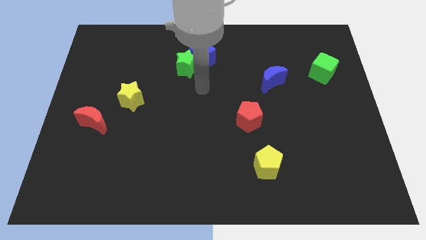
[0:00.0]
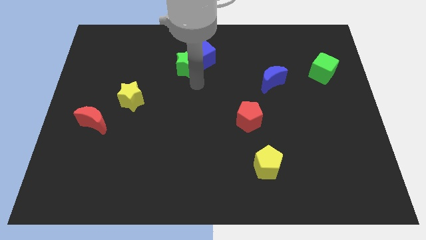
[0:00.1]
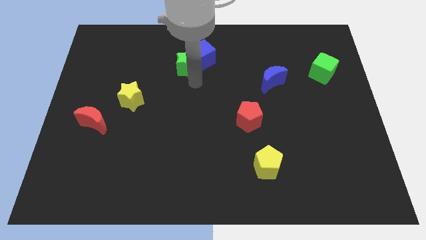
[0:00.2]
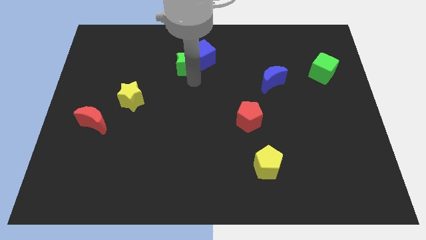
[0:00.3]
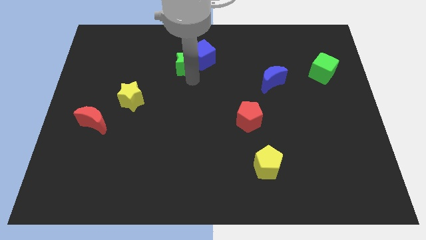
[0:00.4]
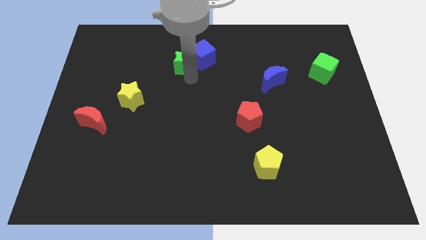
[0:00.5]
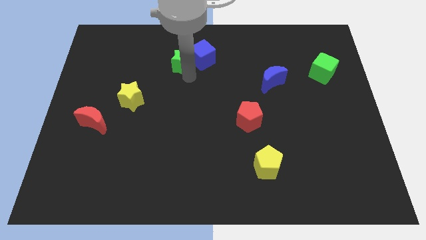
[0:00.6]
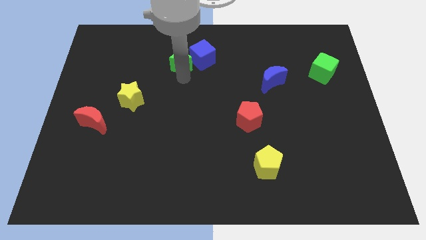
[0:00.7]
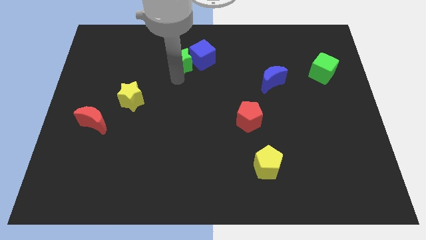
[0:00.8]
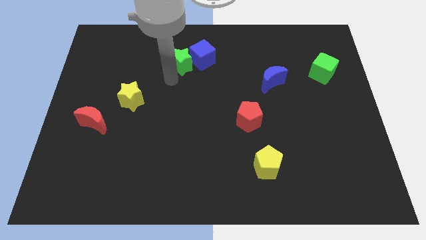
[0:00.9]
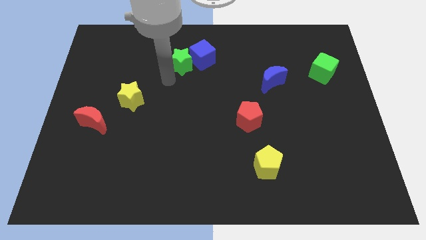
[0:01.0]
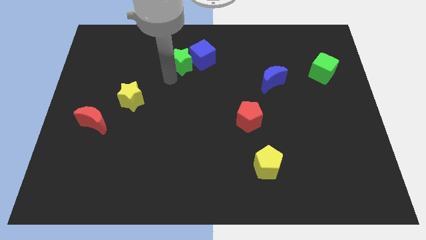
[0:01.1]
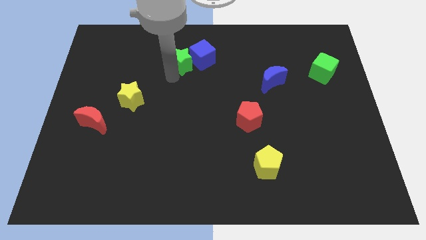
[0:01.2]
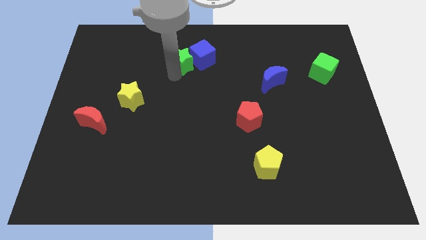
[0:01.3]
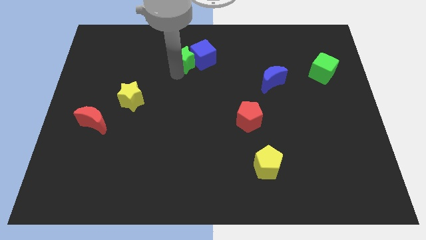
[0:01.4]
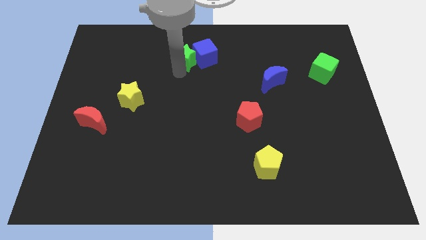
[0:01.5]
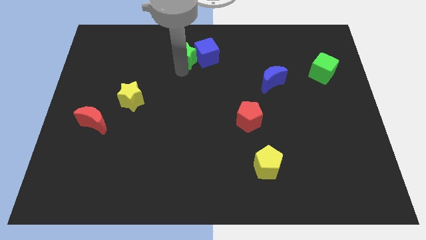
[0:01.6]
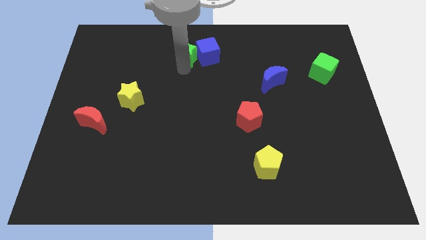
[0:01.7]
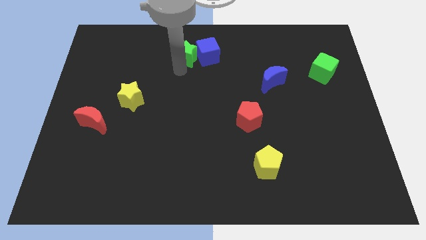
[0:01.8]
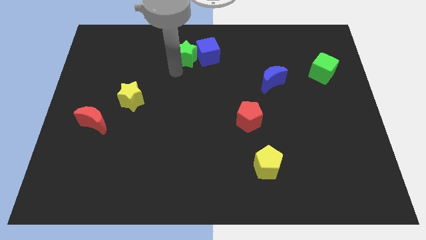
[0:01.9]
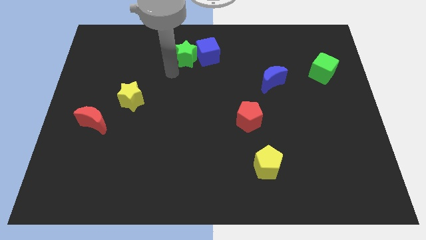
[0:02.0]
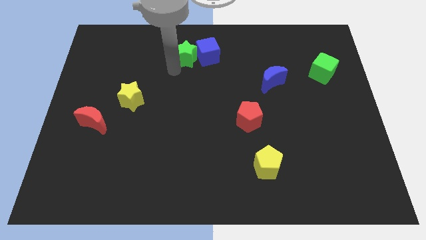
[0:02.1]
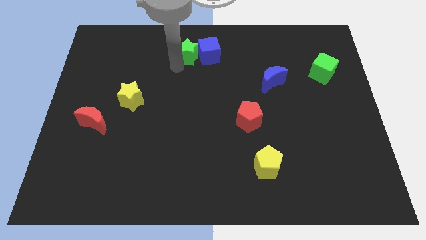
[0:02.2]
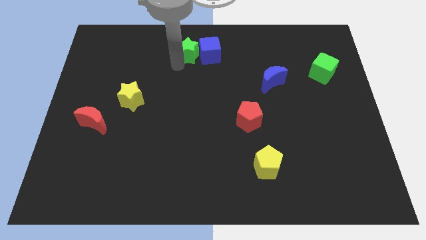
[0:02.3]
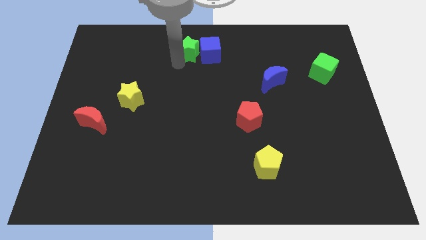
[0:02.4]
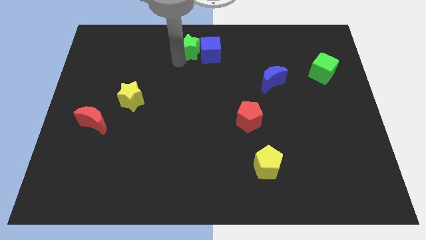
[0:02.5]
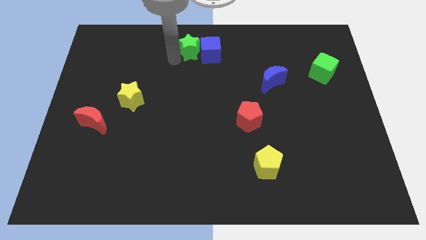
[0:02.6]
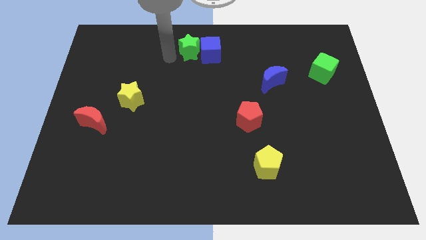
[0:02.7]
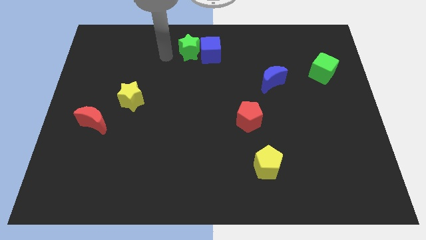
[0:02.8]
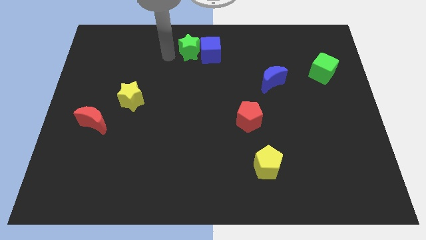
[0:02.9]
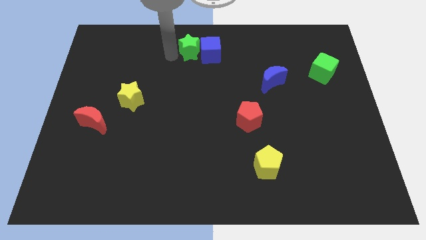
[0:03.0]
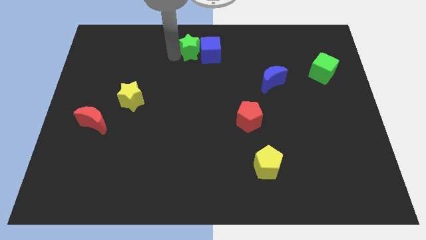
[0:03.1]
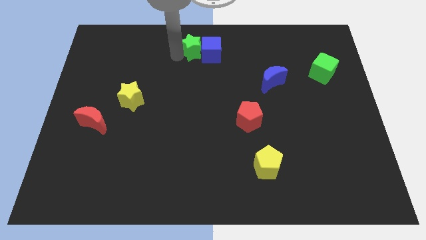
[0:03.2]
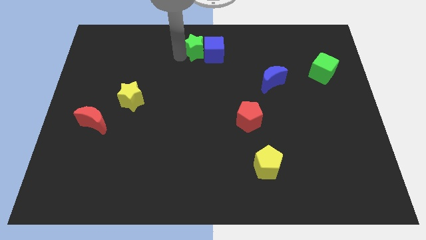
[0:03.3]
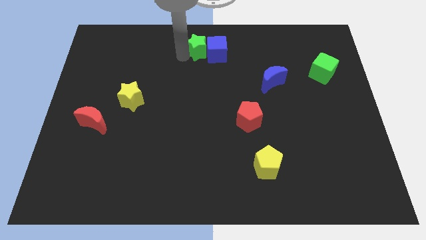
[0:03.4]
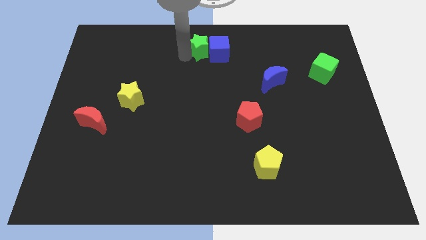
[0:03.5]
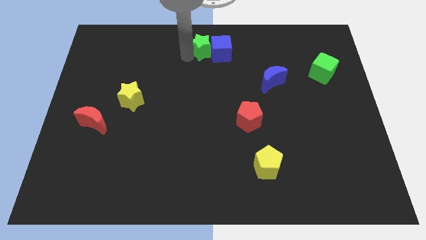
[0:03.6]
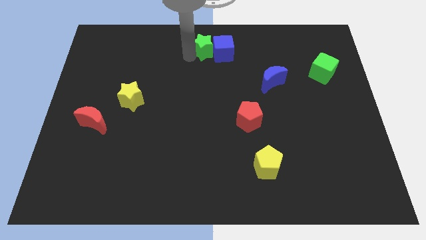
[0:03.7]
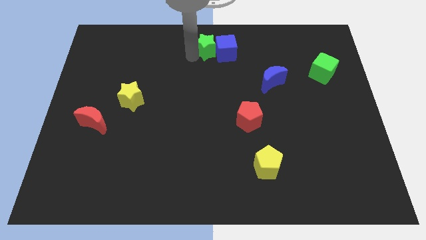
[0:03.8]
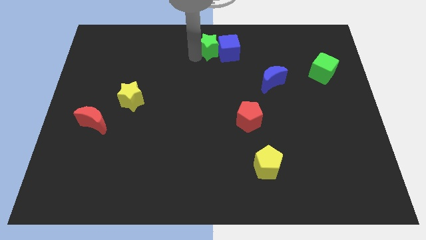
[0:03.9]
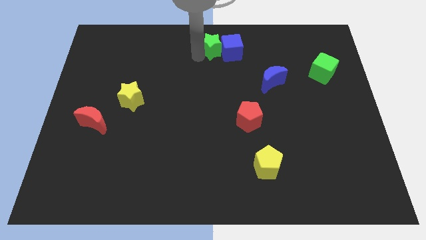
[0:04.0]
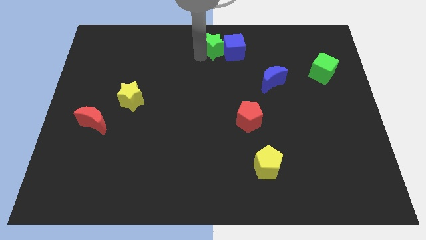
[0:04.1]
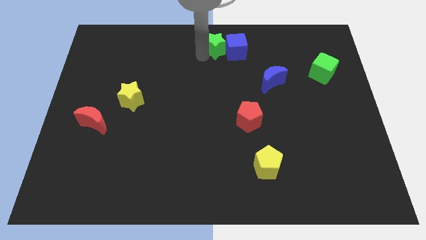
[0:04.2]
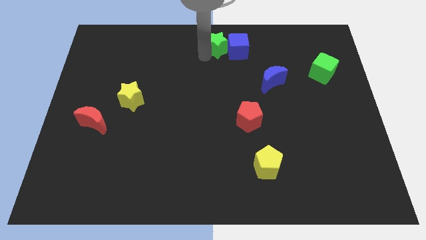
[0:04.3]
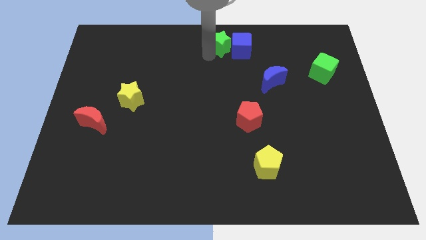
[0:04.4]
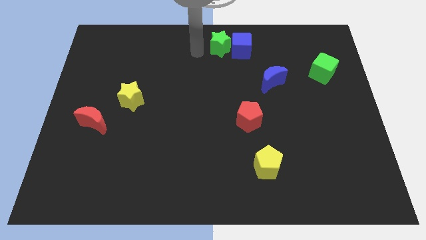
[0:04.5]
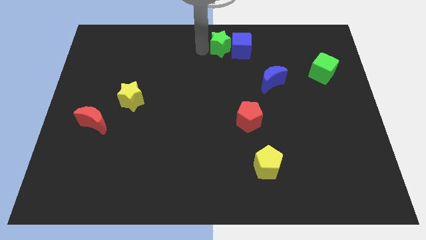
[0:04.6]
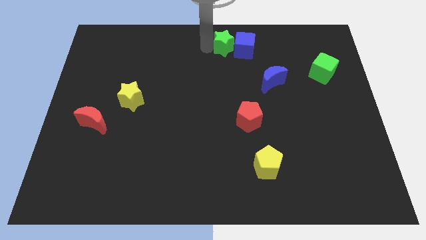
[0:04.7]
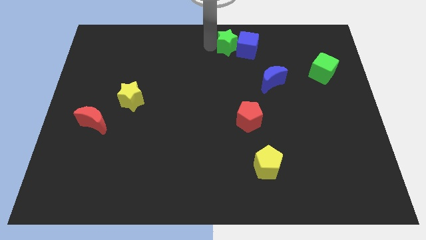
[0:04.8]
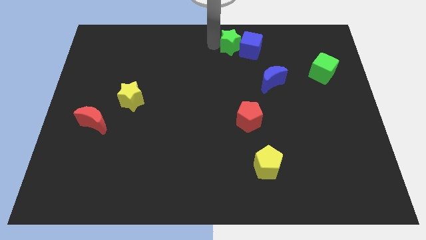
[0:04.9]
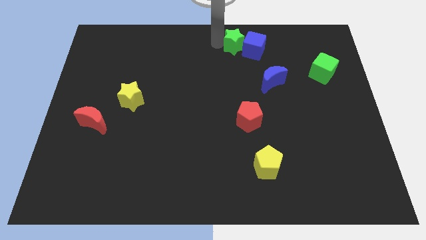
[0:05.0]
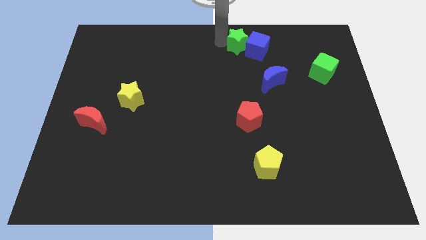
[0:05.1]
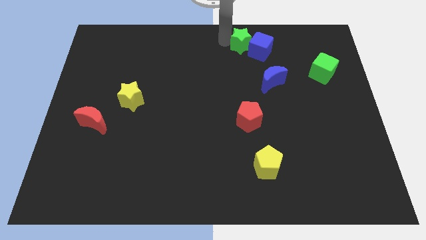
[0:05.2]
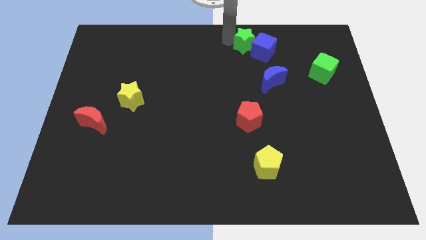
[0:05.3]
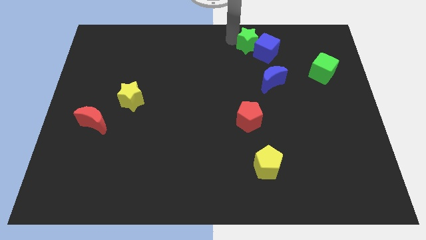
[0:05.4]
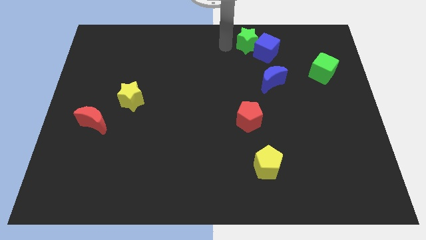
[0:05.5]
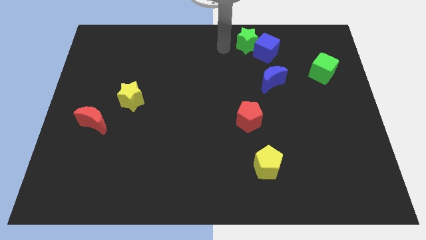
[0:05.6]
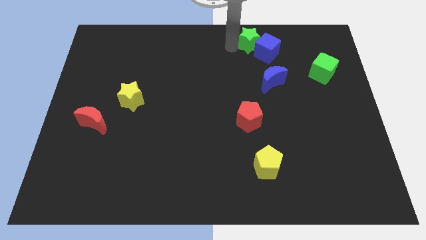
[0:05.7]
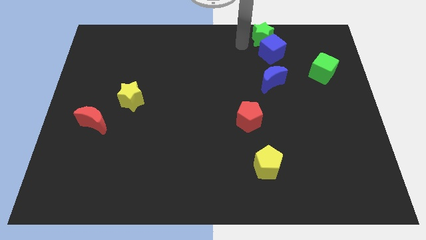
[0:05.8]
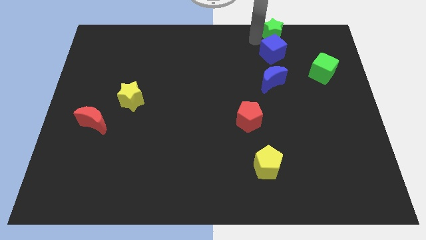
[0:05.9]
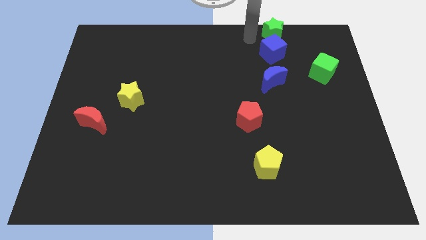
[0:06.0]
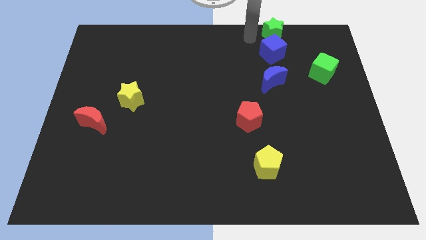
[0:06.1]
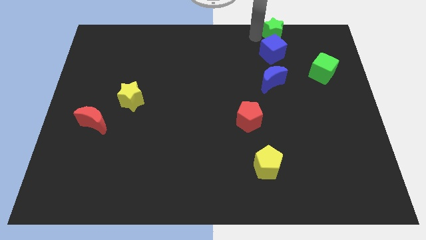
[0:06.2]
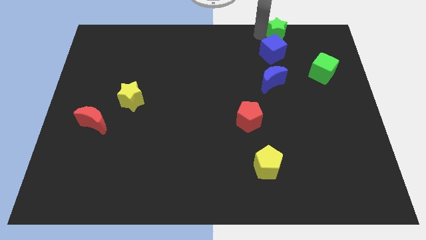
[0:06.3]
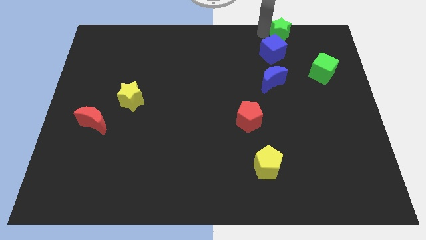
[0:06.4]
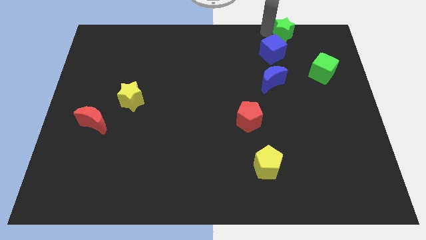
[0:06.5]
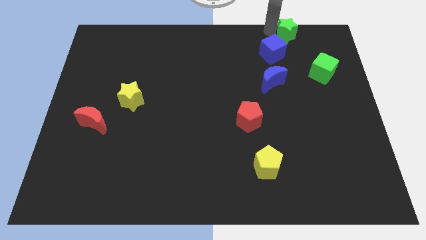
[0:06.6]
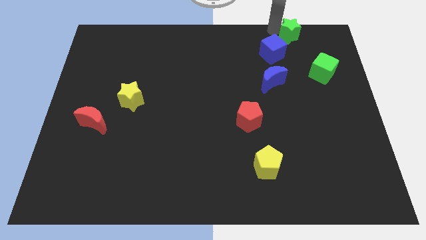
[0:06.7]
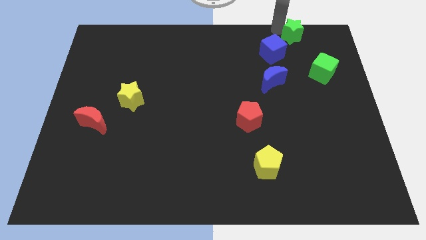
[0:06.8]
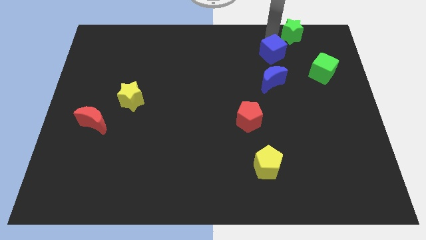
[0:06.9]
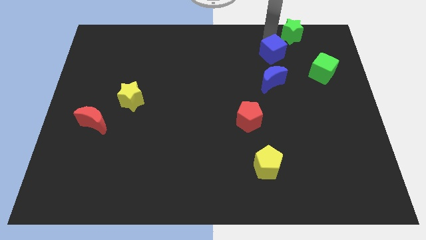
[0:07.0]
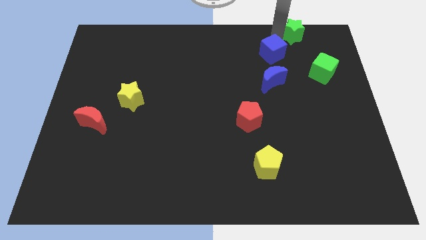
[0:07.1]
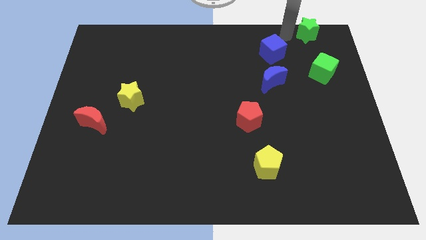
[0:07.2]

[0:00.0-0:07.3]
slide the green star to the top right
